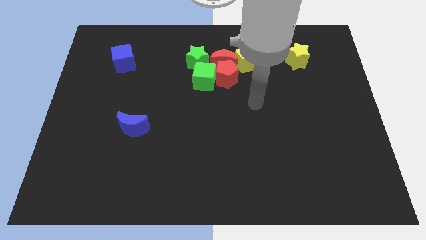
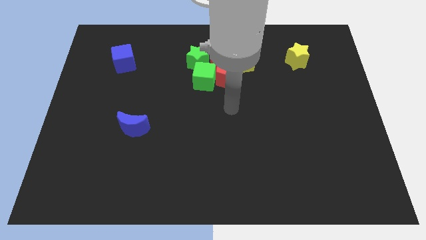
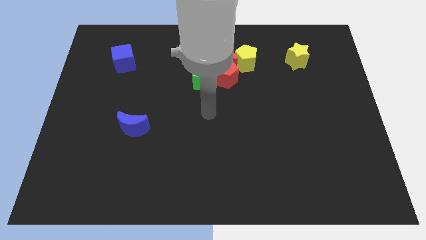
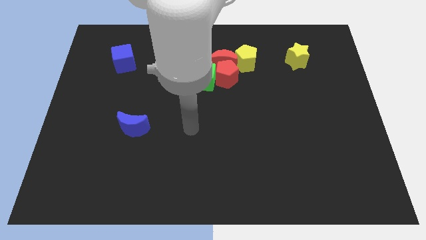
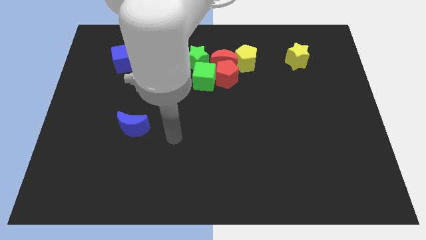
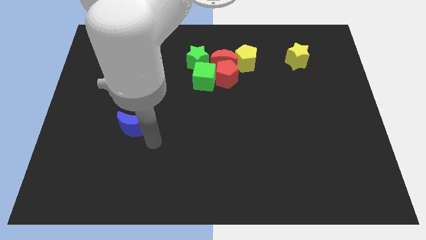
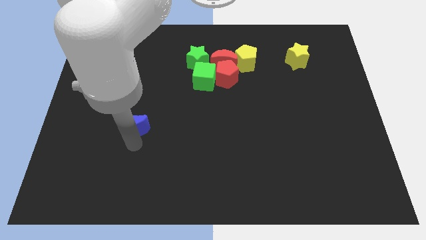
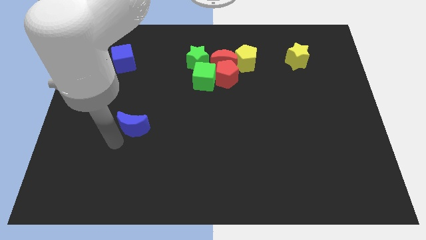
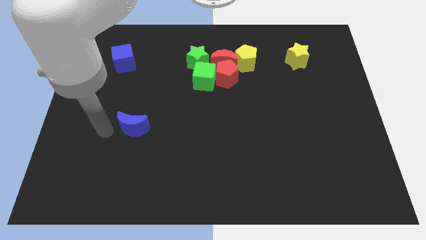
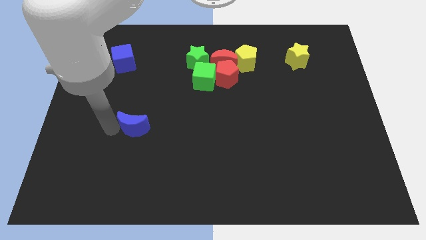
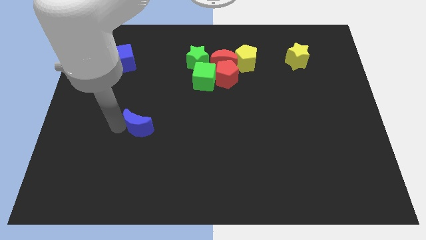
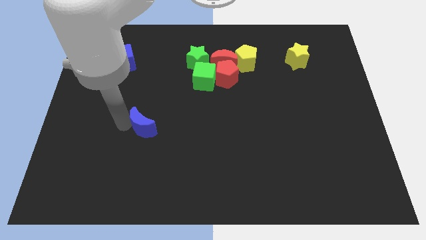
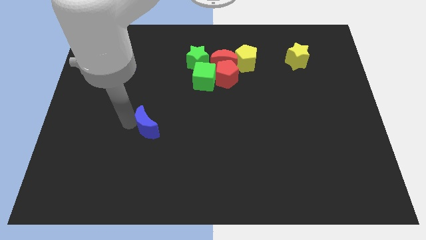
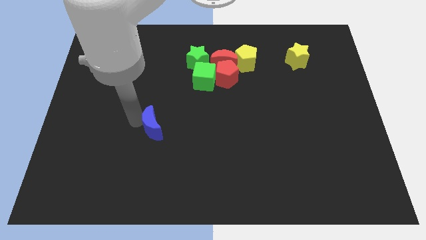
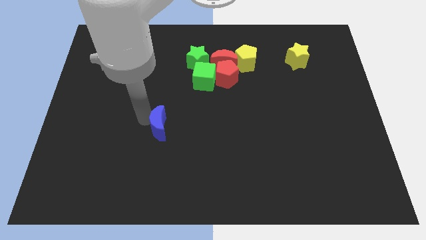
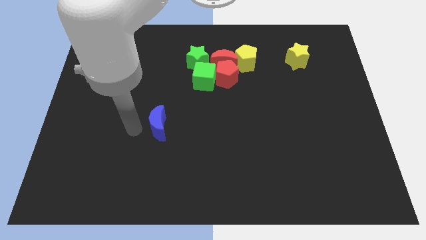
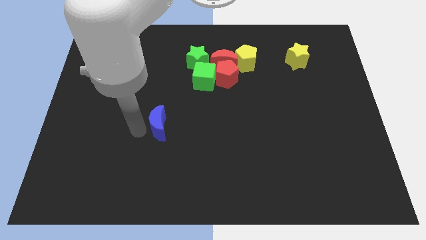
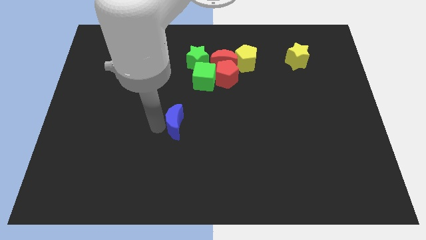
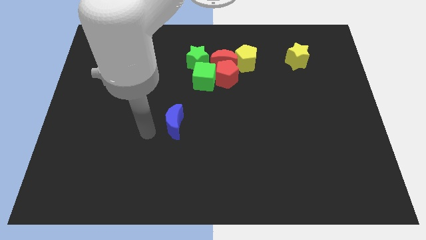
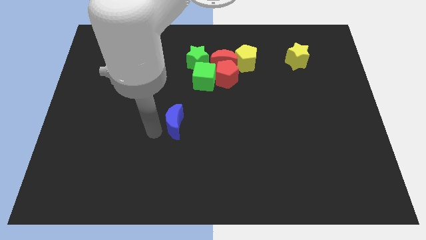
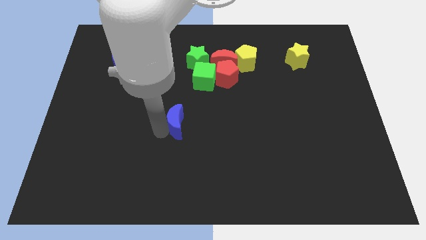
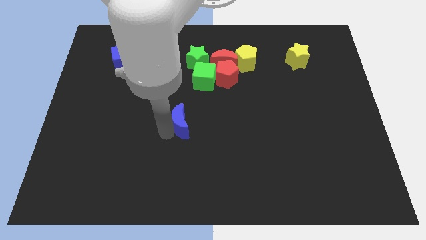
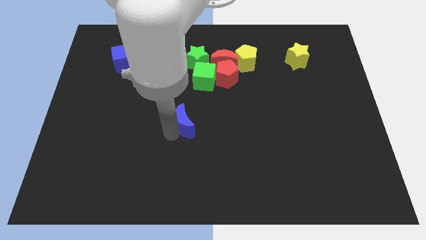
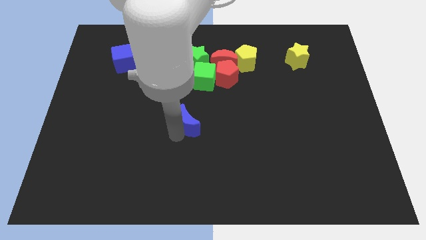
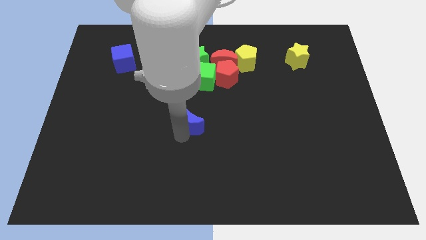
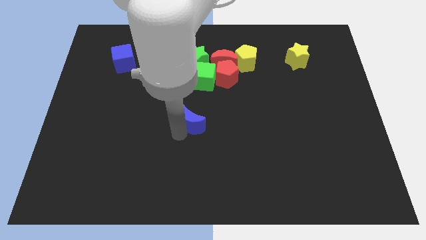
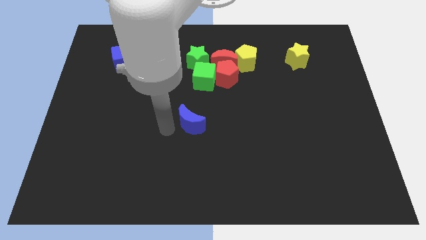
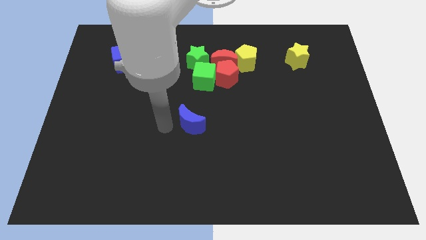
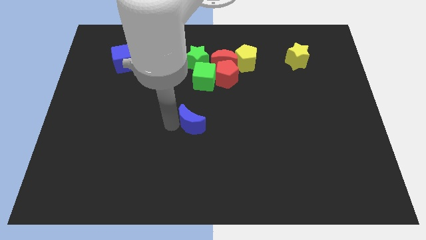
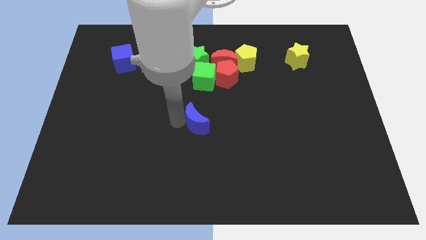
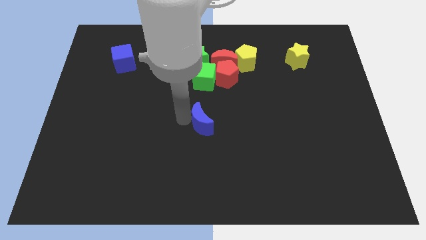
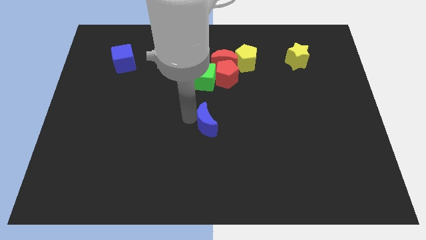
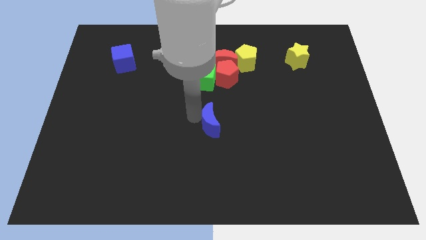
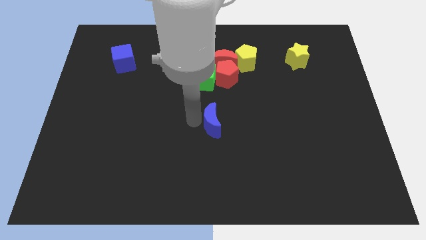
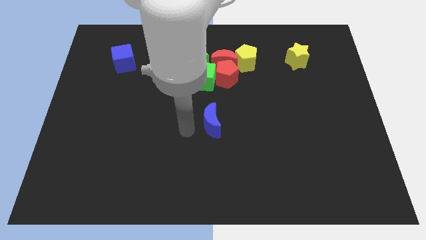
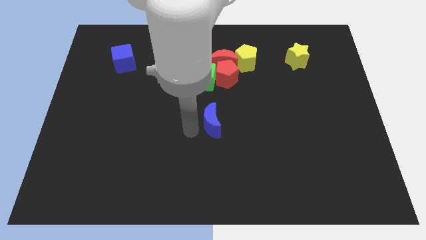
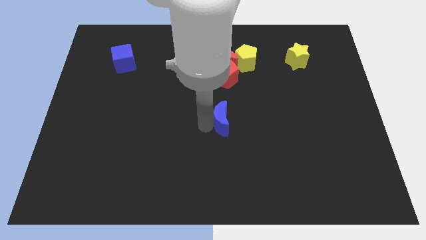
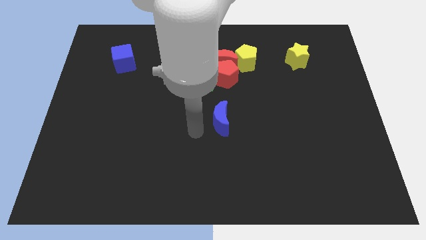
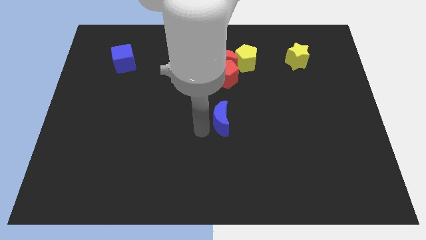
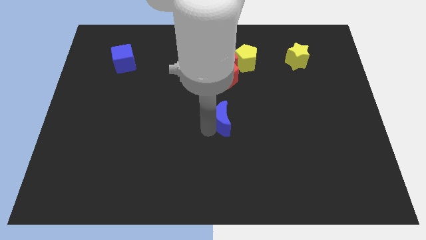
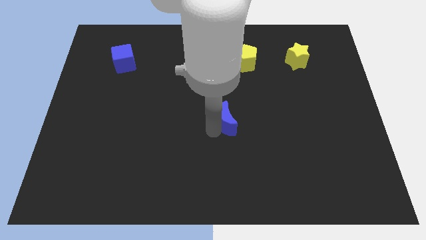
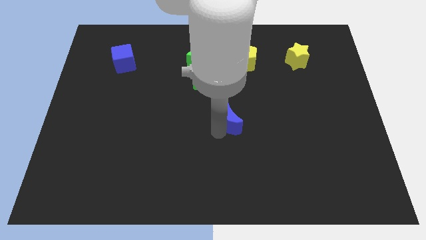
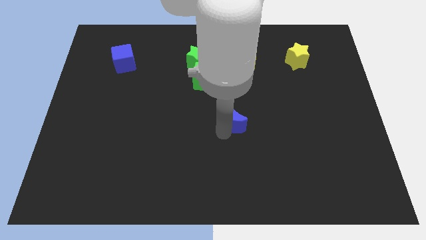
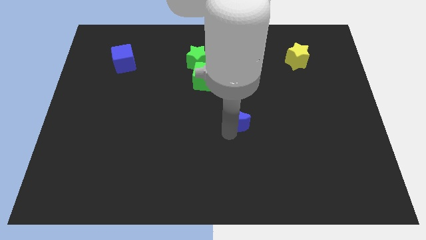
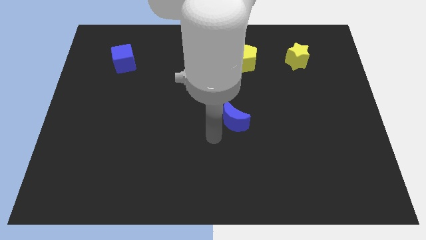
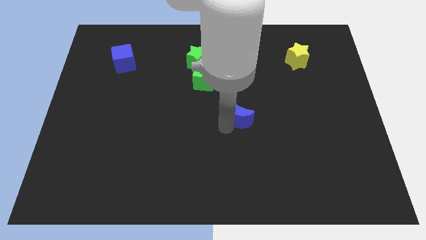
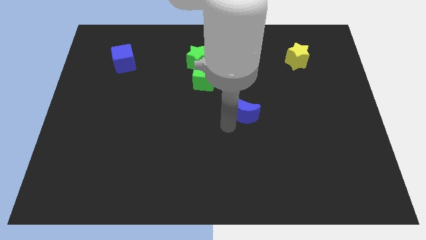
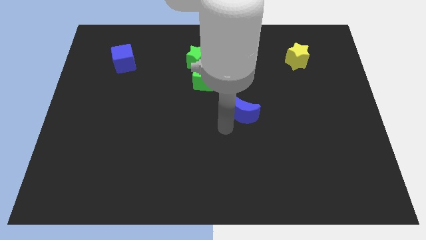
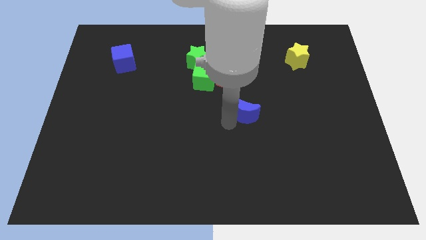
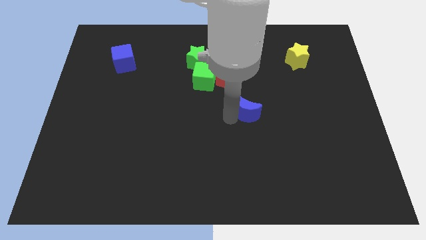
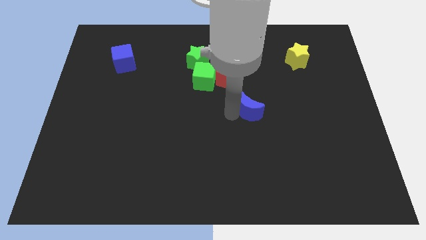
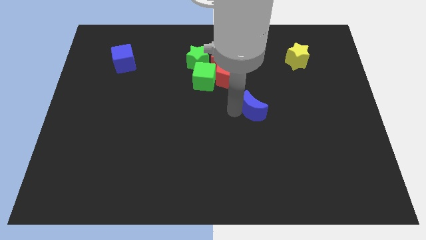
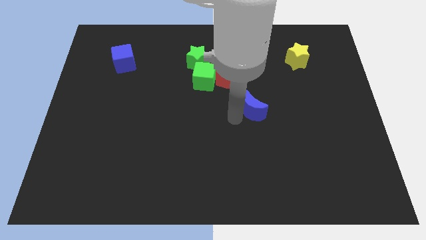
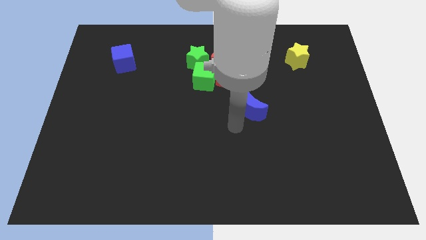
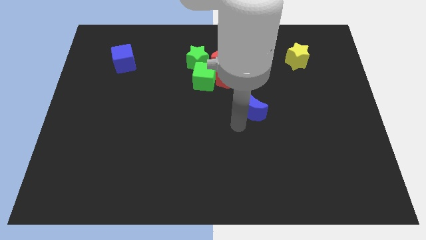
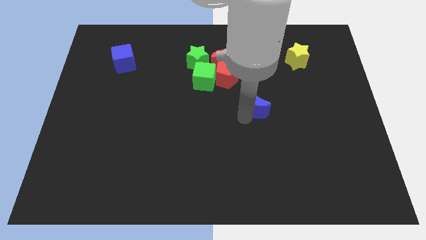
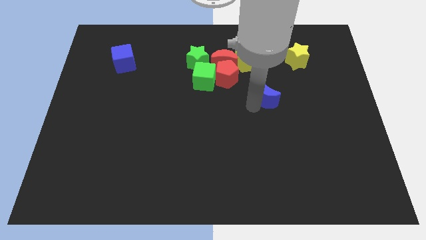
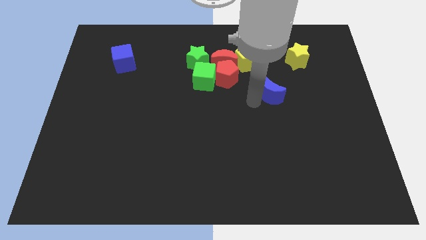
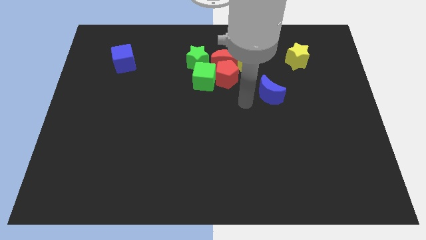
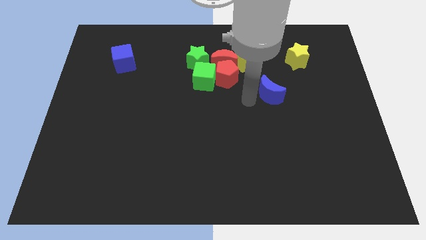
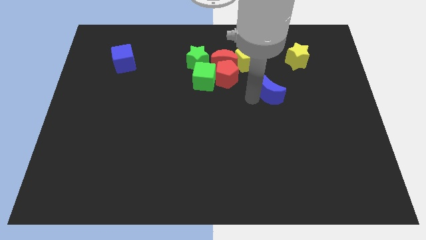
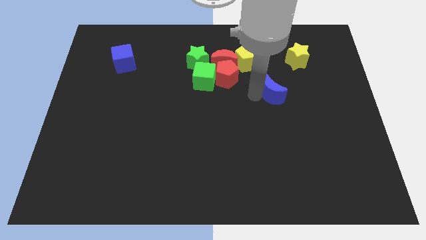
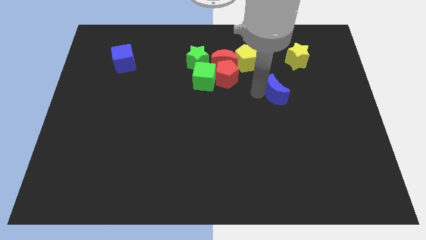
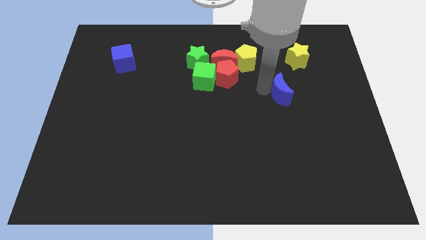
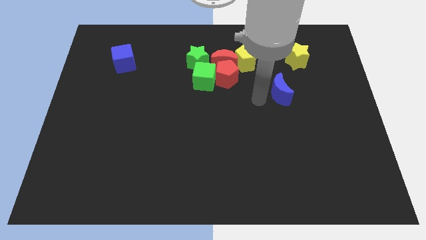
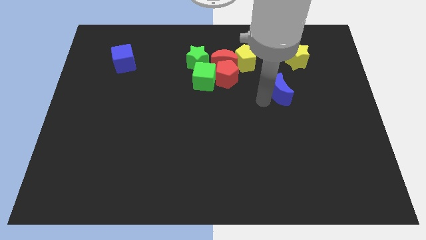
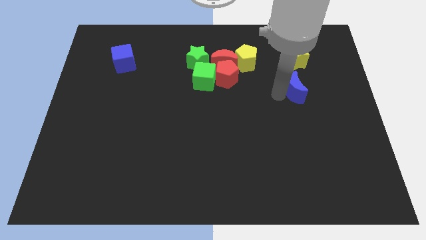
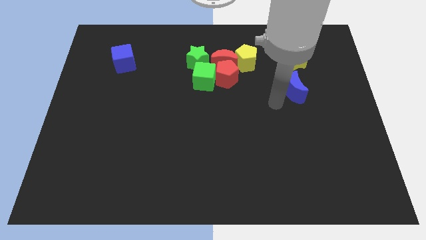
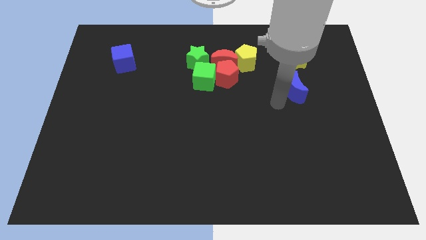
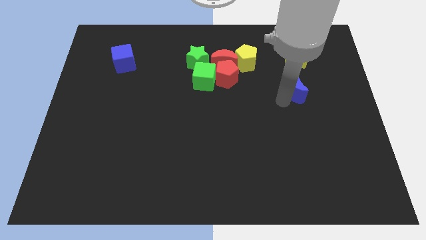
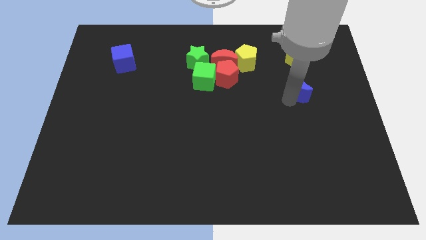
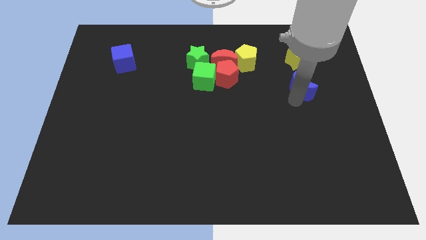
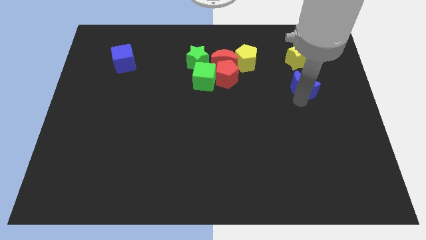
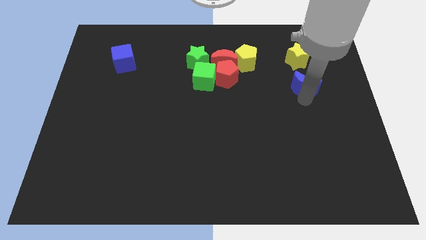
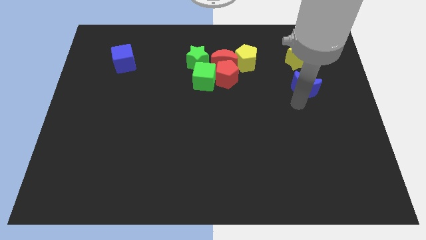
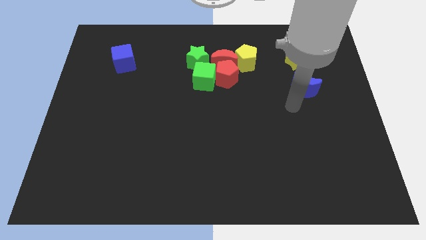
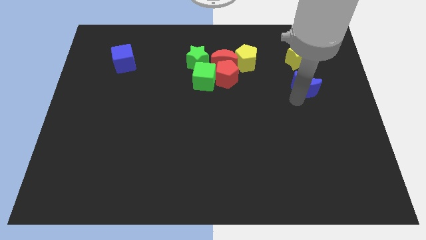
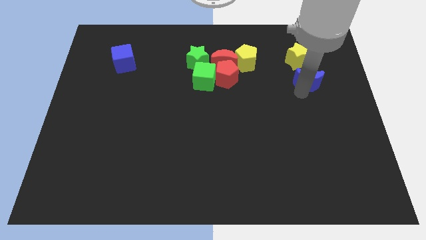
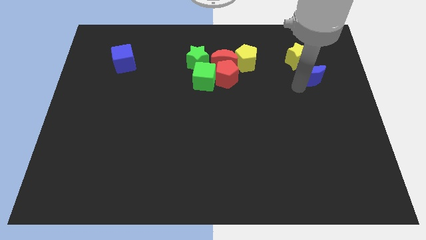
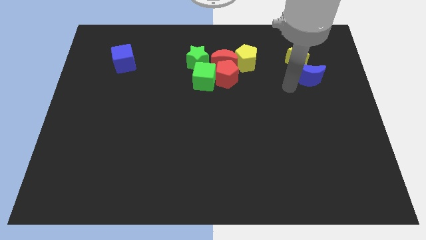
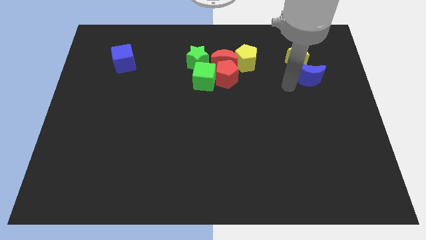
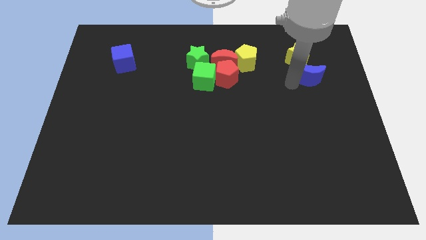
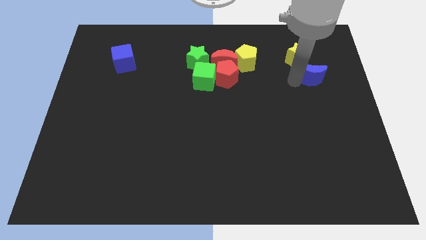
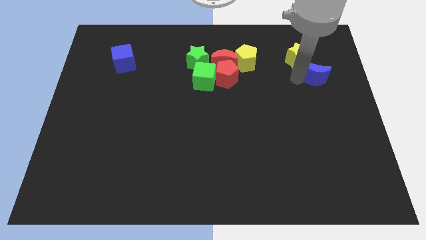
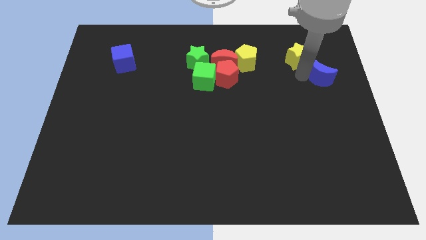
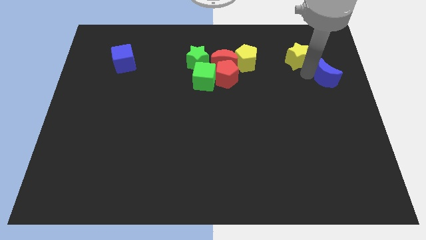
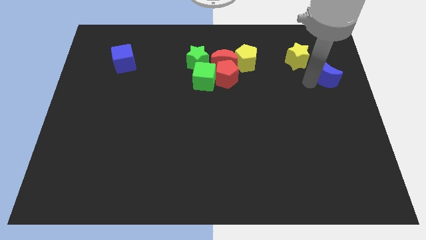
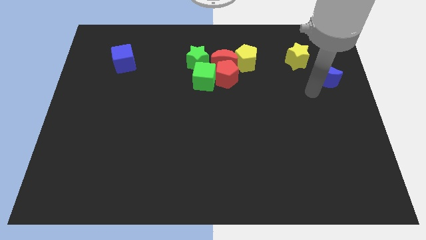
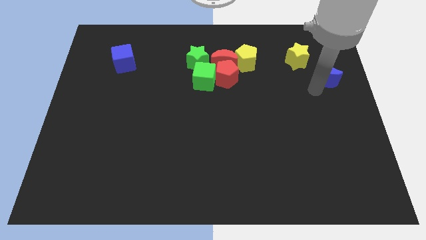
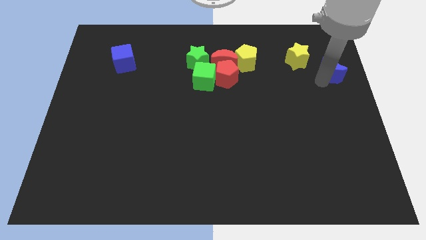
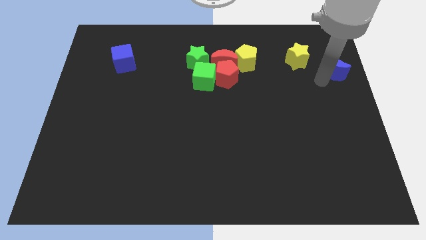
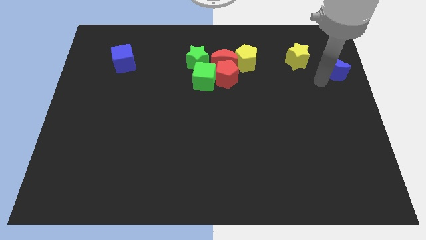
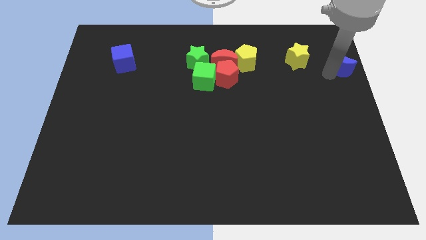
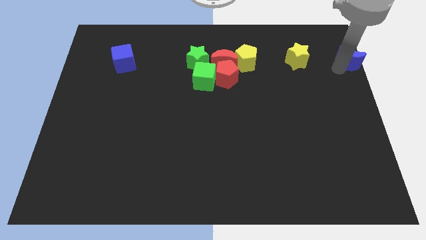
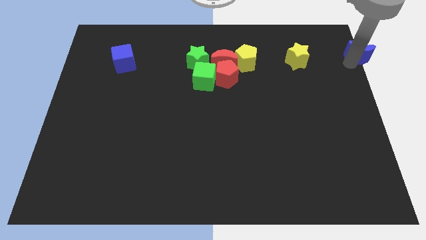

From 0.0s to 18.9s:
put the blue moon to the upper right corner
